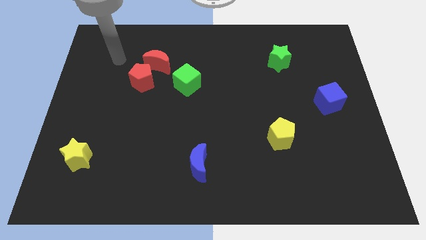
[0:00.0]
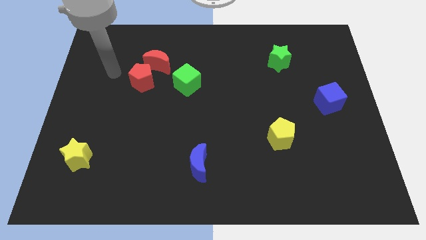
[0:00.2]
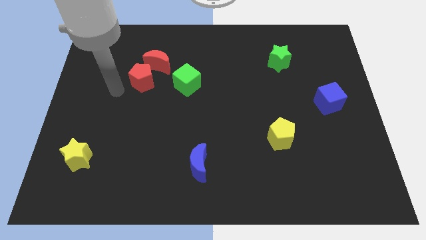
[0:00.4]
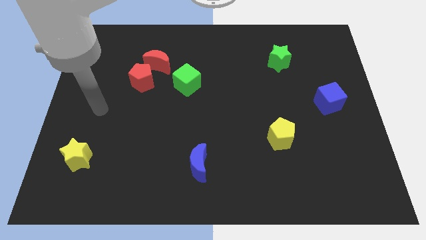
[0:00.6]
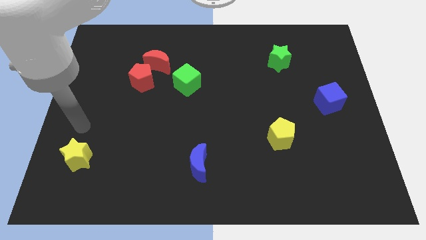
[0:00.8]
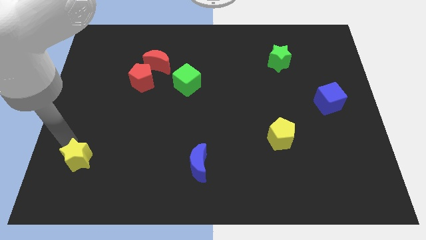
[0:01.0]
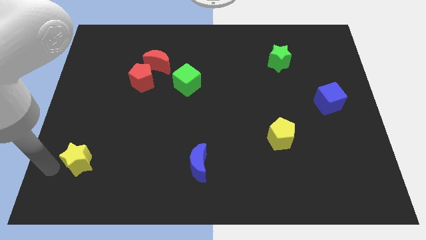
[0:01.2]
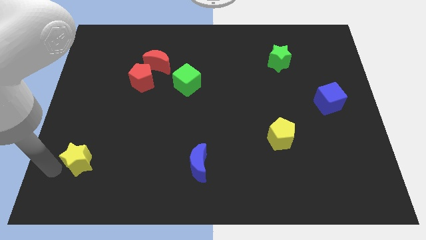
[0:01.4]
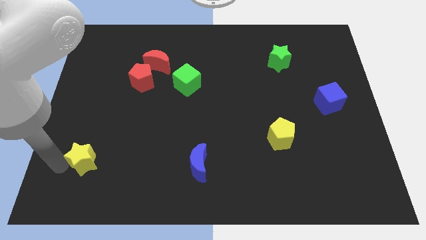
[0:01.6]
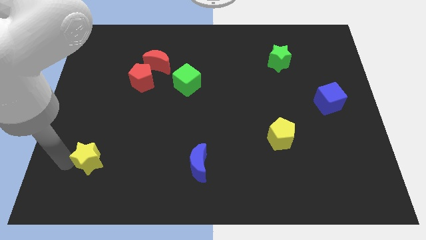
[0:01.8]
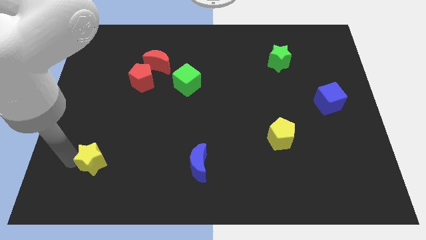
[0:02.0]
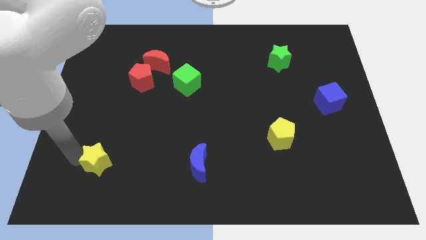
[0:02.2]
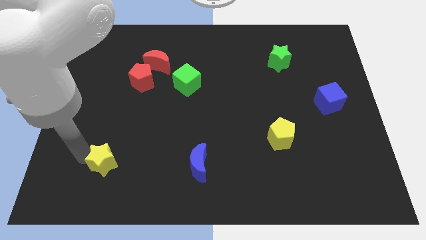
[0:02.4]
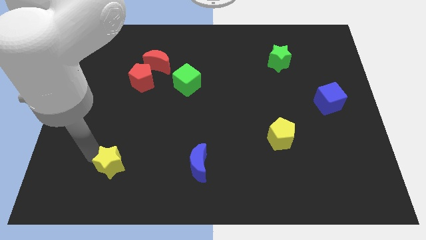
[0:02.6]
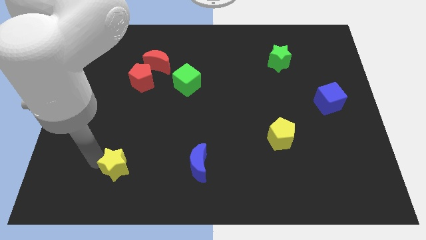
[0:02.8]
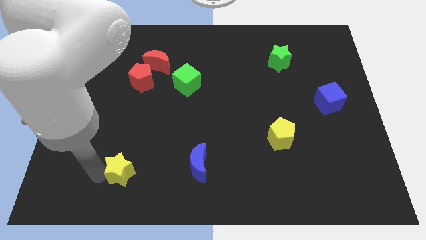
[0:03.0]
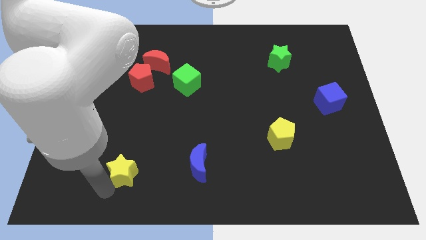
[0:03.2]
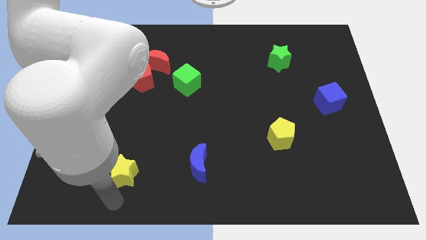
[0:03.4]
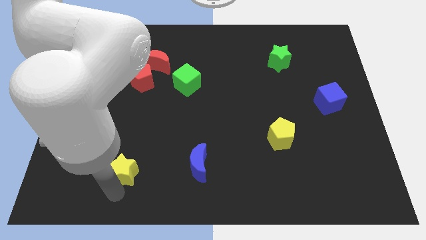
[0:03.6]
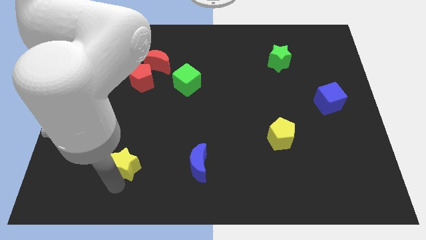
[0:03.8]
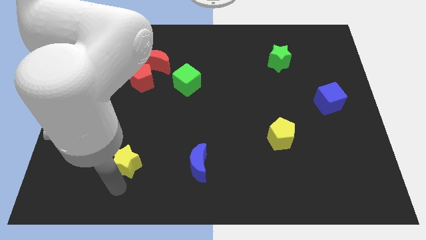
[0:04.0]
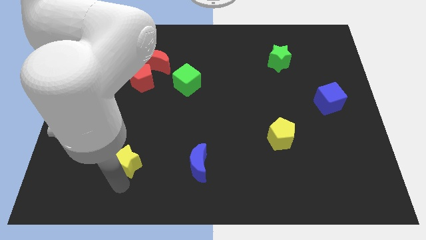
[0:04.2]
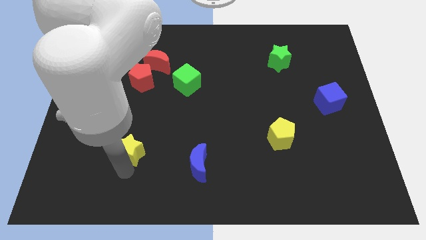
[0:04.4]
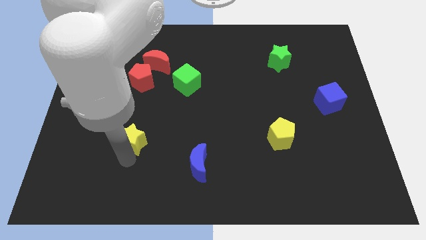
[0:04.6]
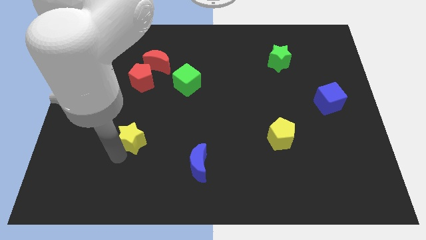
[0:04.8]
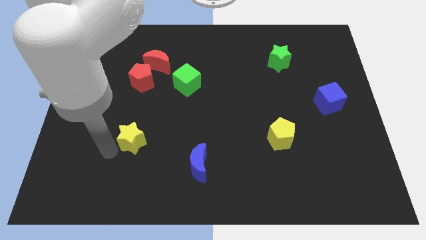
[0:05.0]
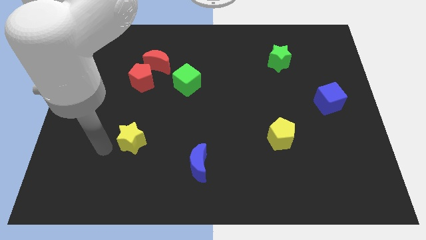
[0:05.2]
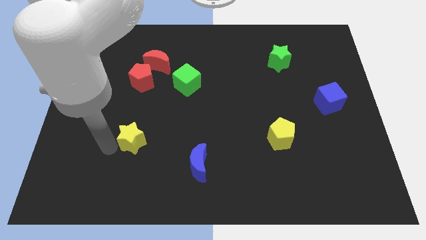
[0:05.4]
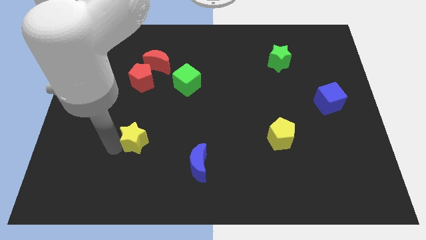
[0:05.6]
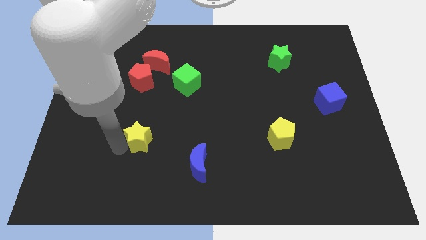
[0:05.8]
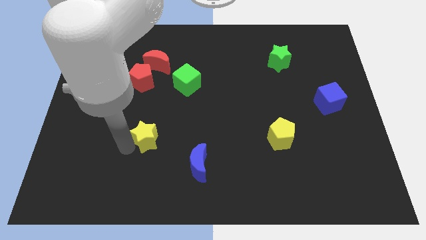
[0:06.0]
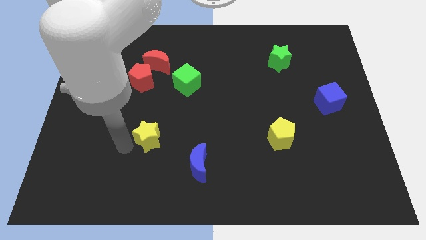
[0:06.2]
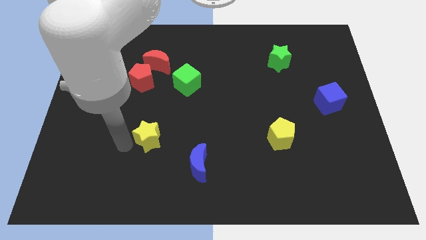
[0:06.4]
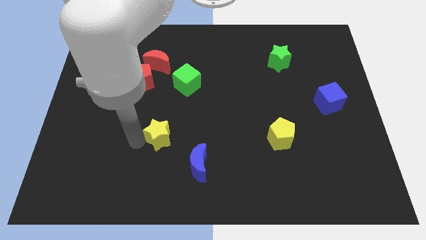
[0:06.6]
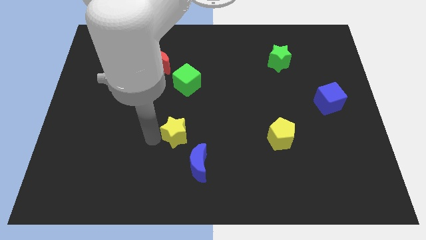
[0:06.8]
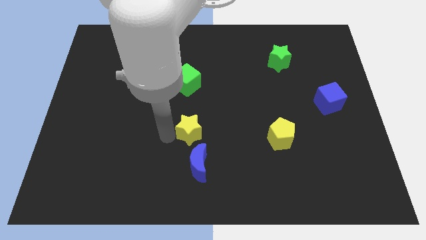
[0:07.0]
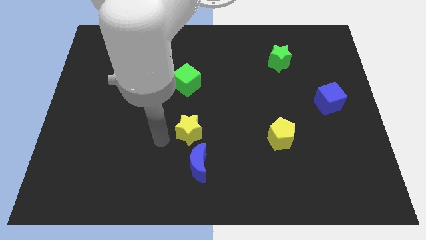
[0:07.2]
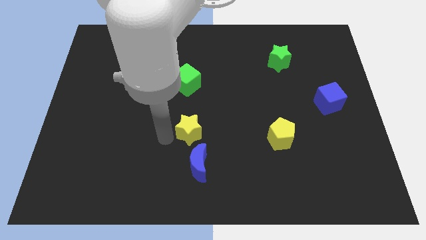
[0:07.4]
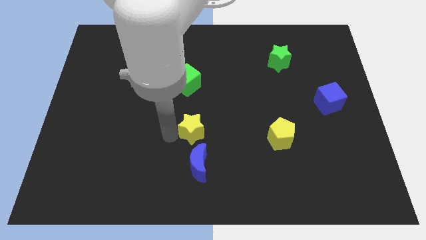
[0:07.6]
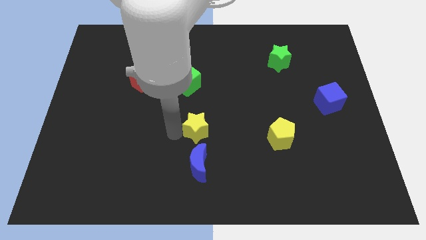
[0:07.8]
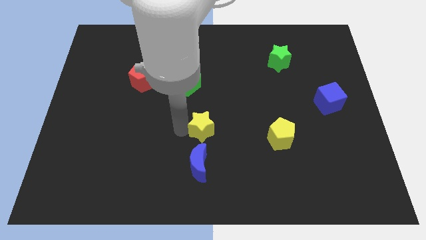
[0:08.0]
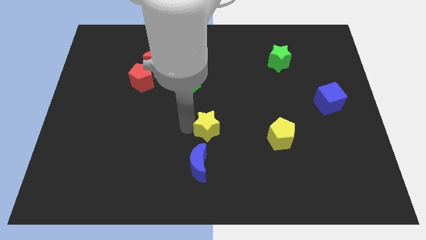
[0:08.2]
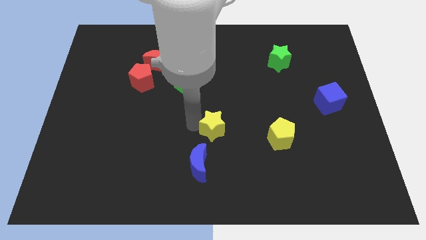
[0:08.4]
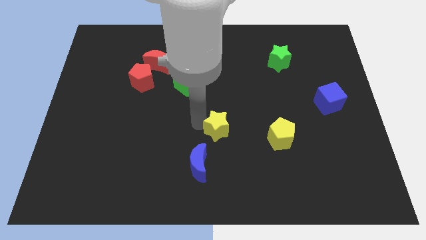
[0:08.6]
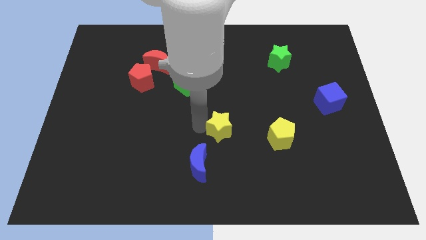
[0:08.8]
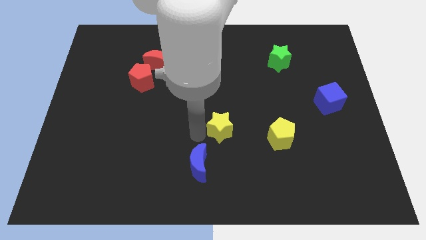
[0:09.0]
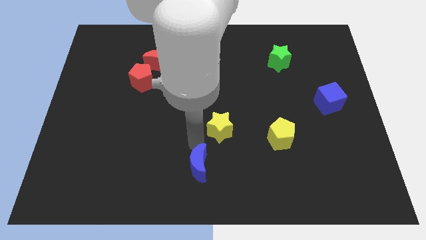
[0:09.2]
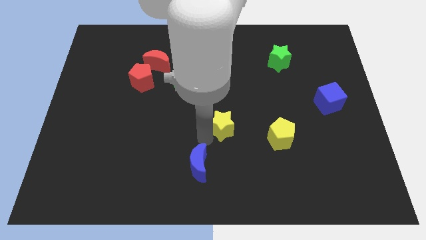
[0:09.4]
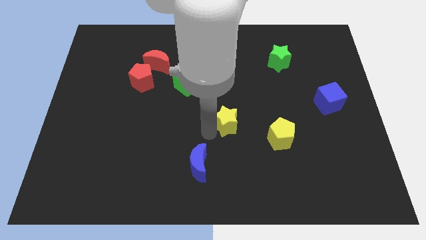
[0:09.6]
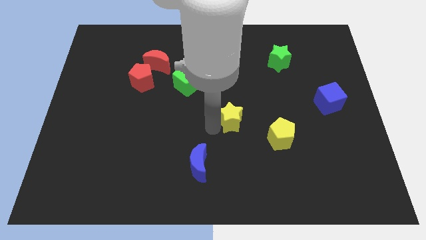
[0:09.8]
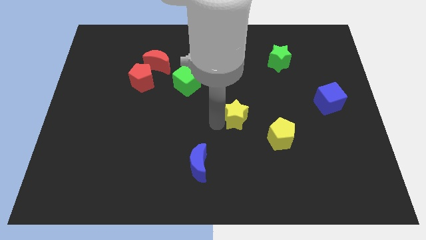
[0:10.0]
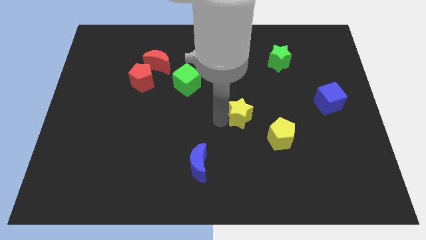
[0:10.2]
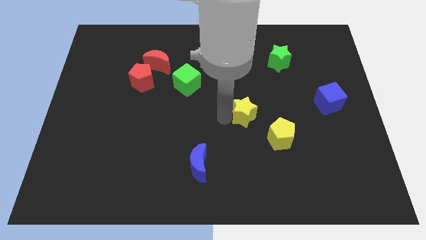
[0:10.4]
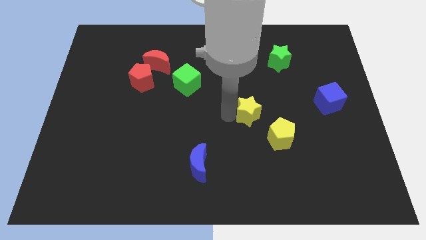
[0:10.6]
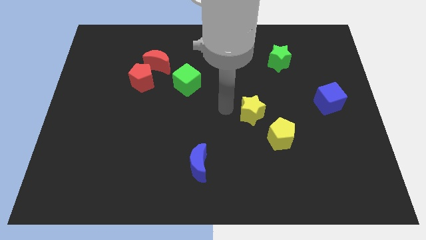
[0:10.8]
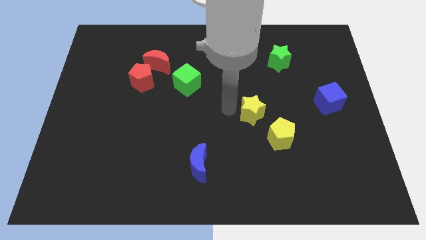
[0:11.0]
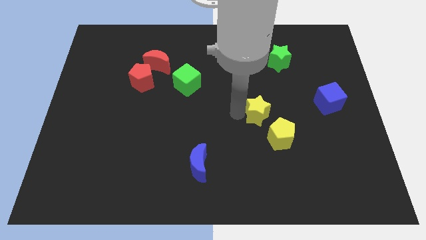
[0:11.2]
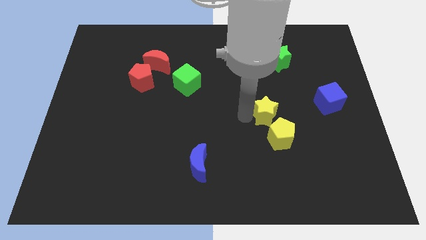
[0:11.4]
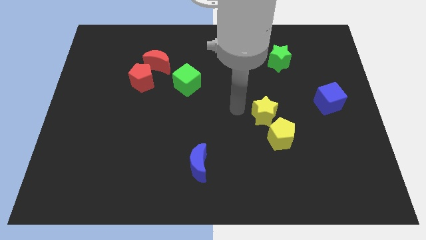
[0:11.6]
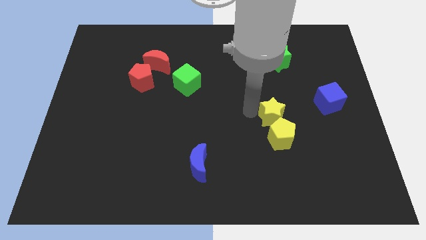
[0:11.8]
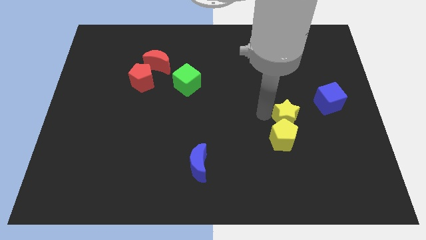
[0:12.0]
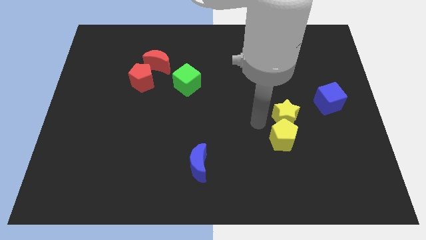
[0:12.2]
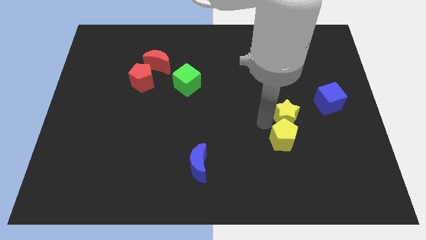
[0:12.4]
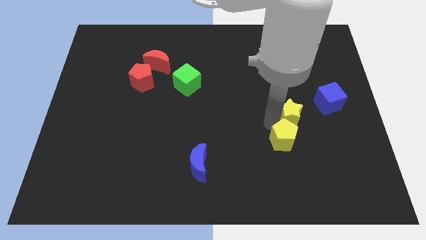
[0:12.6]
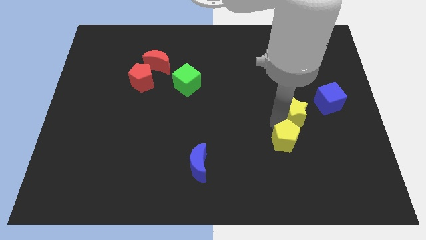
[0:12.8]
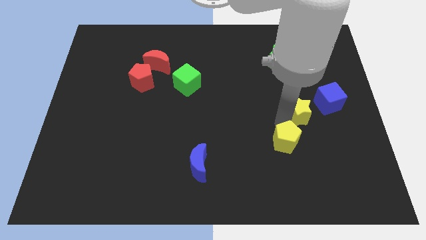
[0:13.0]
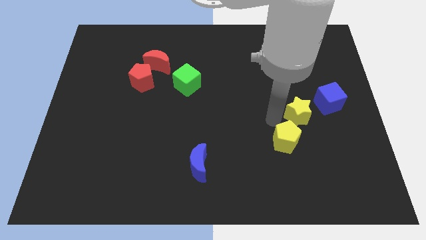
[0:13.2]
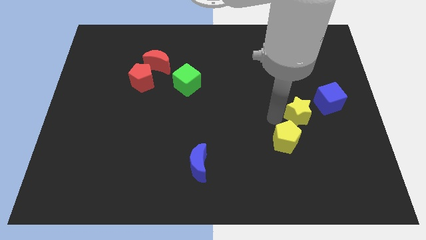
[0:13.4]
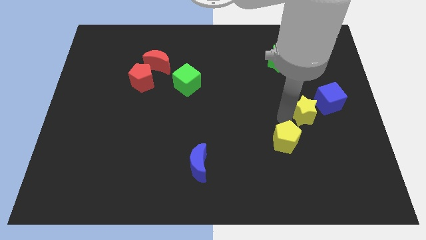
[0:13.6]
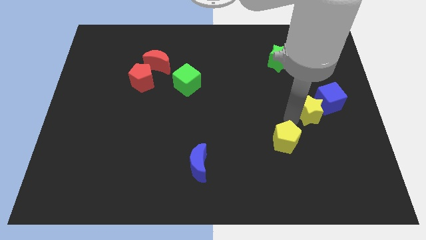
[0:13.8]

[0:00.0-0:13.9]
slide the yellow star towards the blue cube

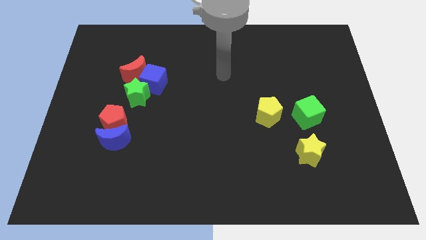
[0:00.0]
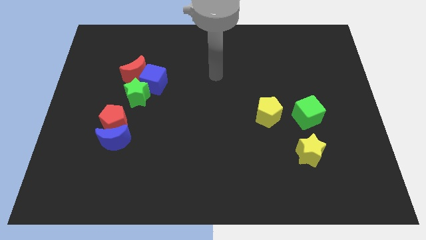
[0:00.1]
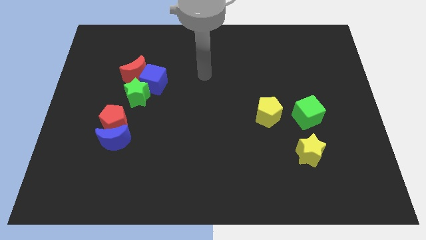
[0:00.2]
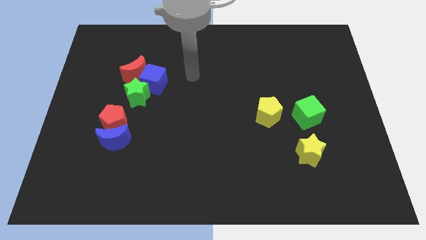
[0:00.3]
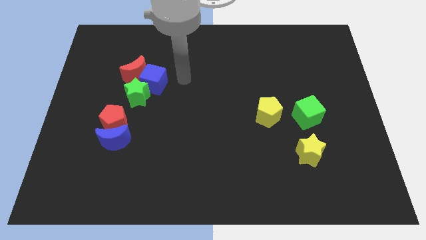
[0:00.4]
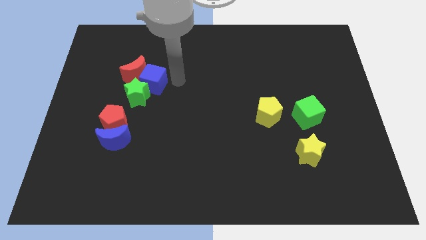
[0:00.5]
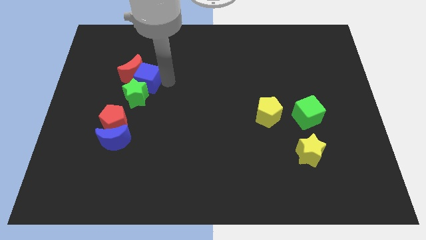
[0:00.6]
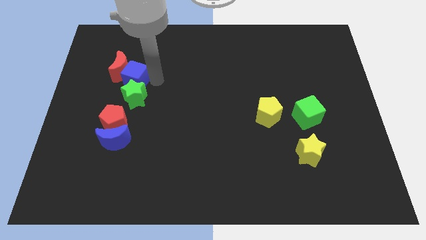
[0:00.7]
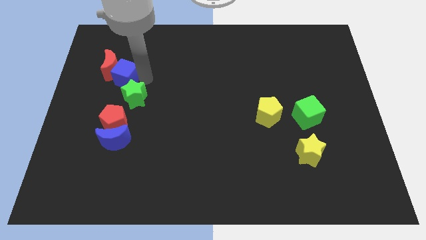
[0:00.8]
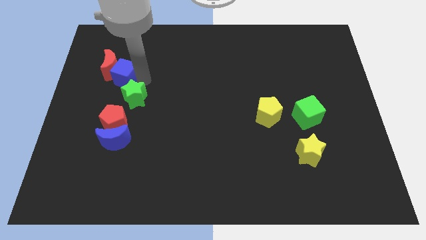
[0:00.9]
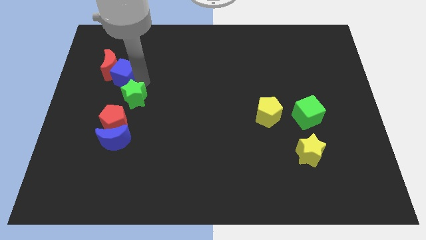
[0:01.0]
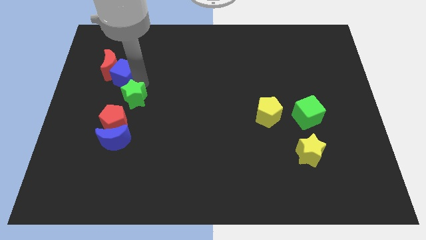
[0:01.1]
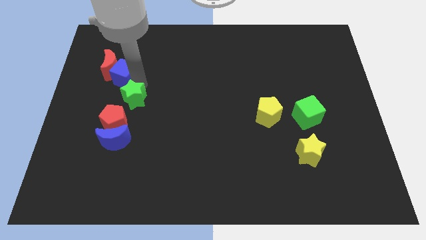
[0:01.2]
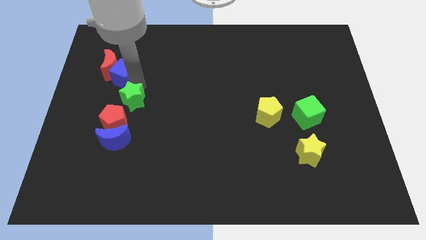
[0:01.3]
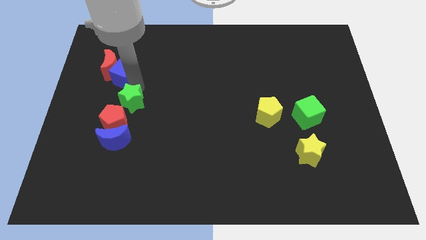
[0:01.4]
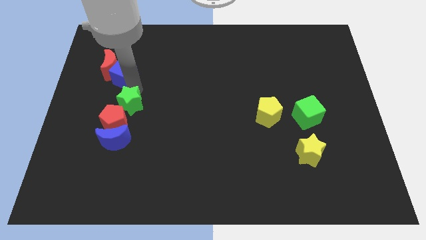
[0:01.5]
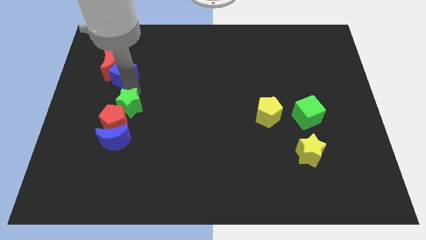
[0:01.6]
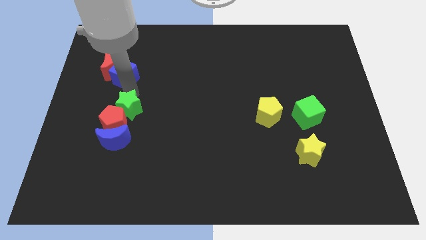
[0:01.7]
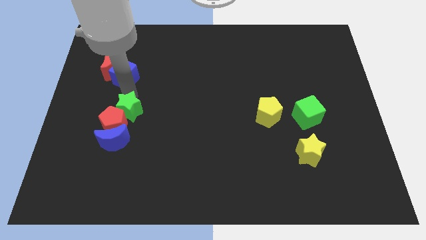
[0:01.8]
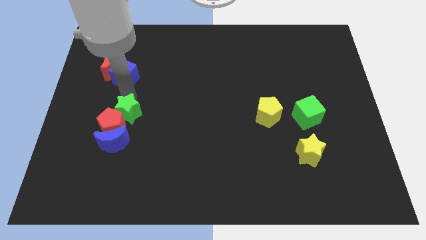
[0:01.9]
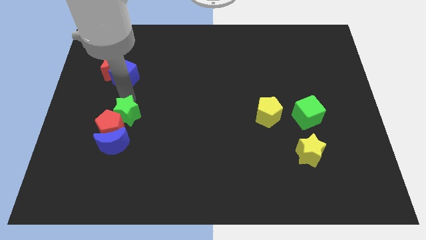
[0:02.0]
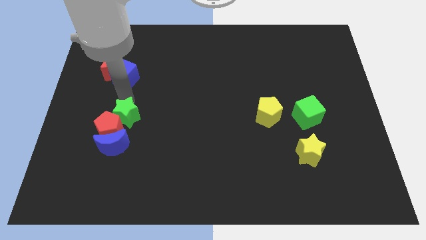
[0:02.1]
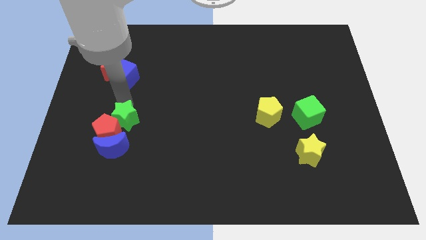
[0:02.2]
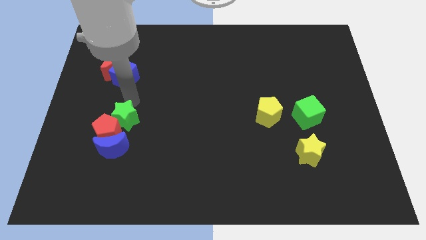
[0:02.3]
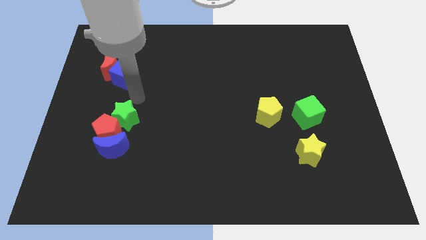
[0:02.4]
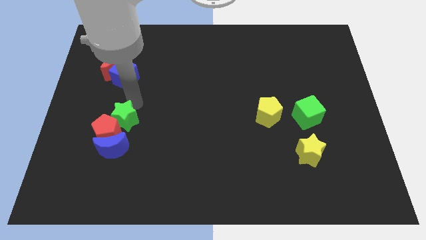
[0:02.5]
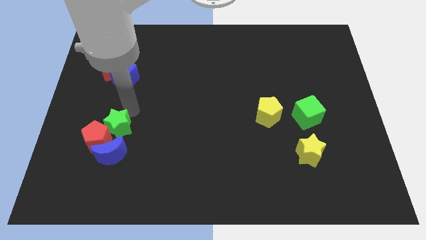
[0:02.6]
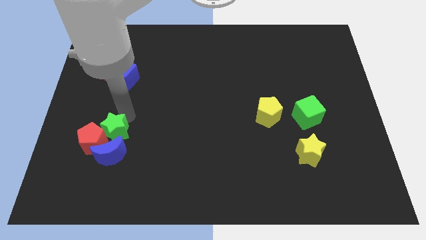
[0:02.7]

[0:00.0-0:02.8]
put the green star to the blue moon
